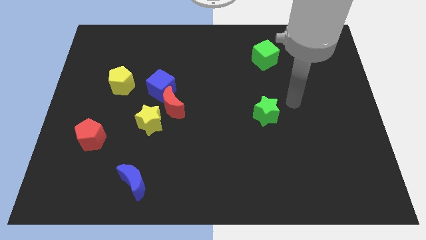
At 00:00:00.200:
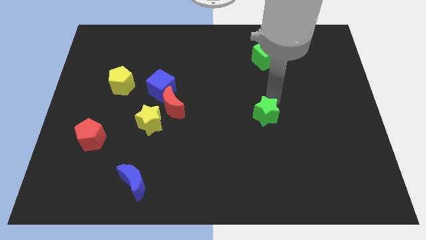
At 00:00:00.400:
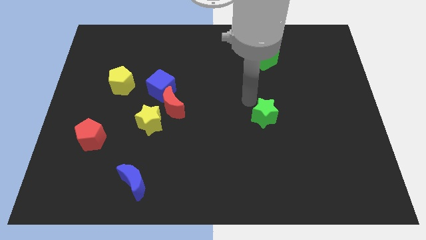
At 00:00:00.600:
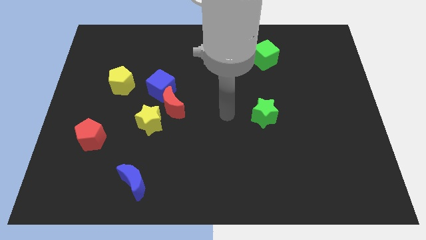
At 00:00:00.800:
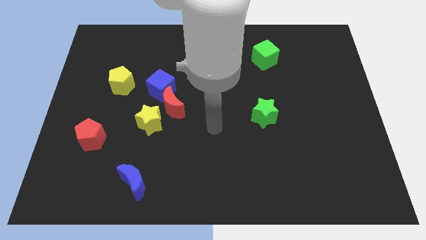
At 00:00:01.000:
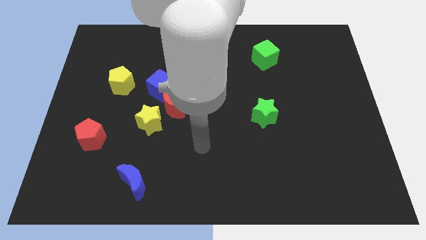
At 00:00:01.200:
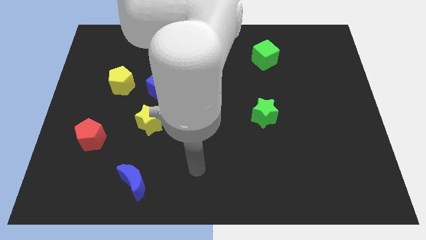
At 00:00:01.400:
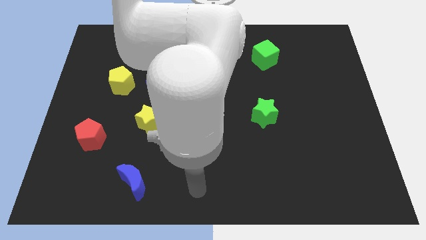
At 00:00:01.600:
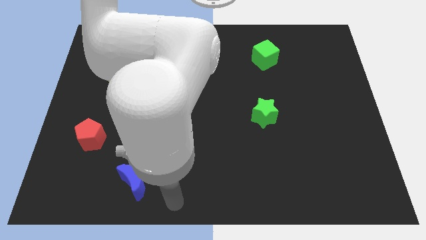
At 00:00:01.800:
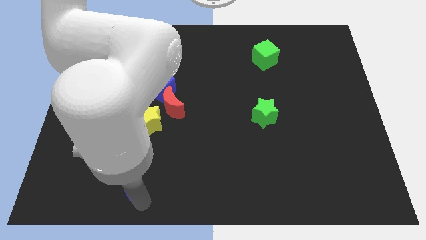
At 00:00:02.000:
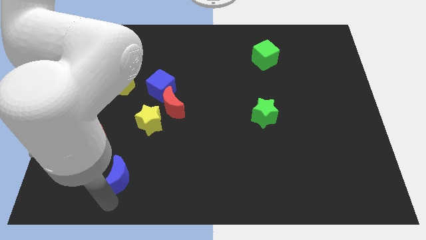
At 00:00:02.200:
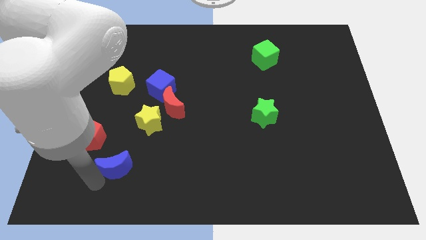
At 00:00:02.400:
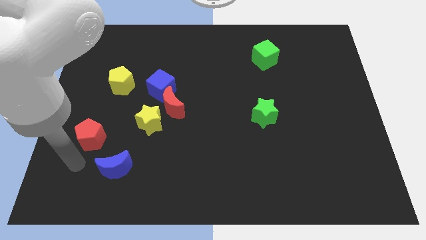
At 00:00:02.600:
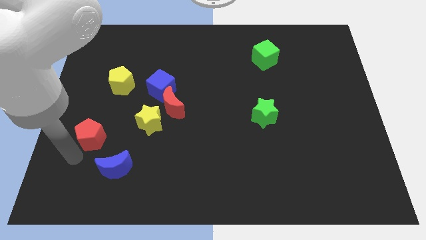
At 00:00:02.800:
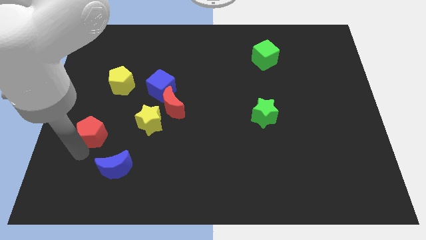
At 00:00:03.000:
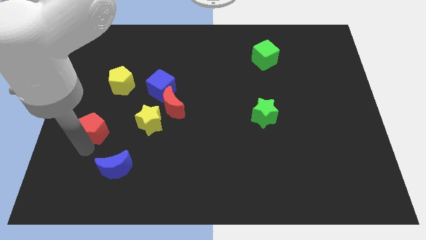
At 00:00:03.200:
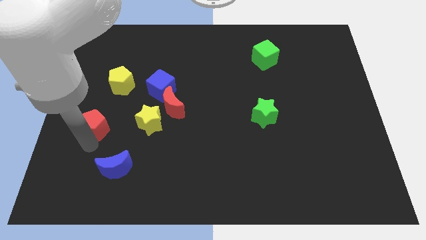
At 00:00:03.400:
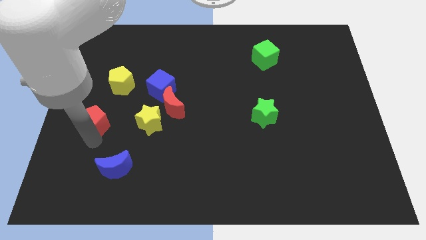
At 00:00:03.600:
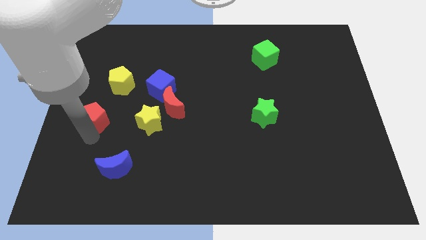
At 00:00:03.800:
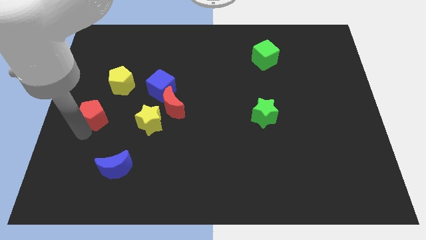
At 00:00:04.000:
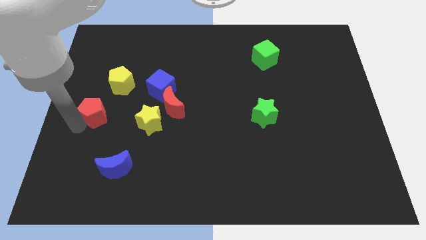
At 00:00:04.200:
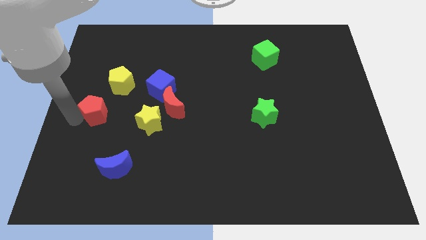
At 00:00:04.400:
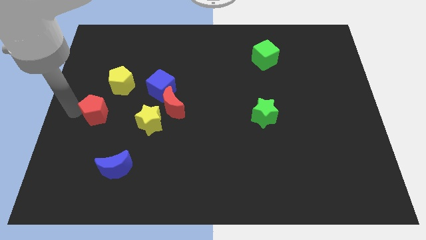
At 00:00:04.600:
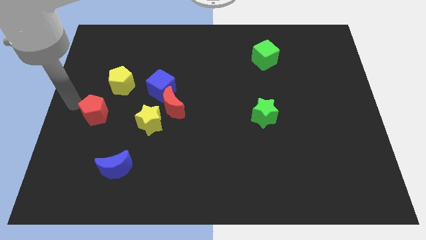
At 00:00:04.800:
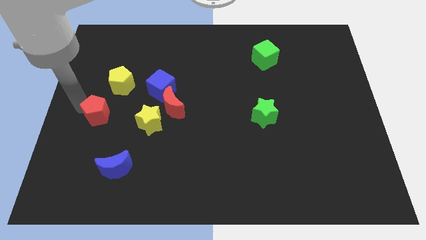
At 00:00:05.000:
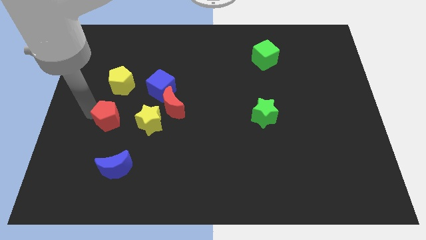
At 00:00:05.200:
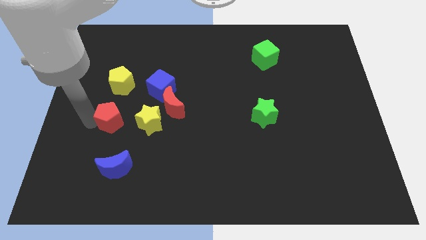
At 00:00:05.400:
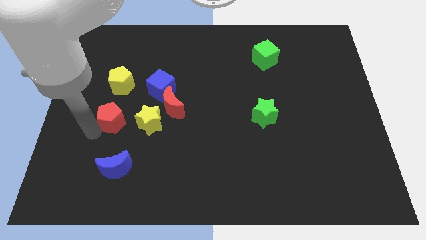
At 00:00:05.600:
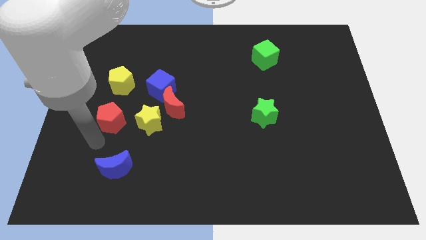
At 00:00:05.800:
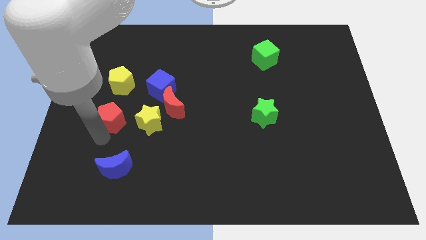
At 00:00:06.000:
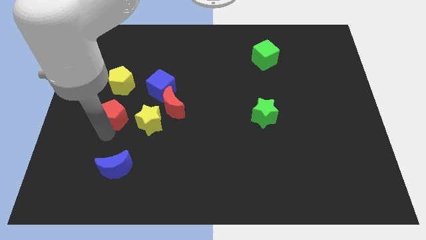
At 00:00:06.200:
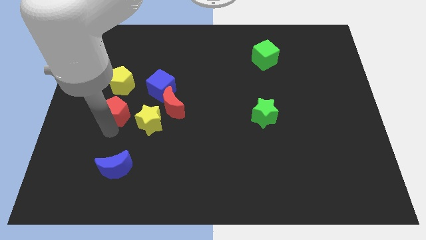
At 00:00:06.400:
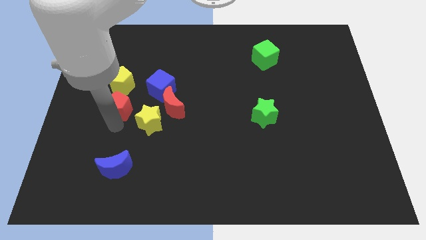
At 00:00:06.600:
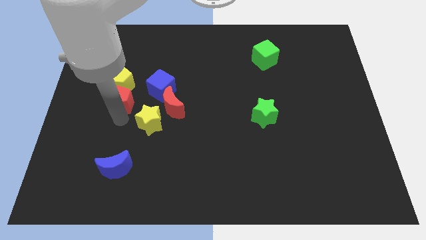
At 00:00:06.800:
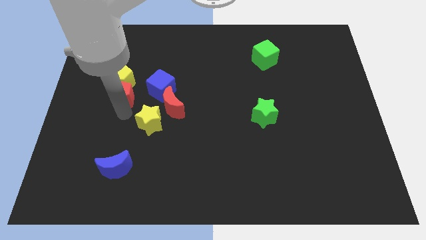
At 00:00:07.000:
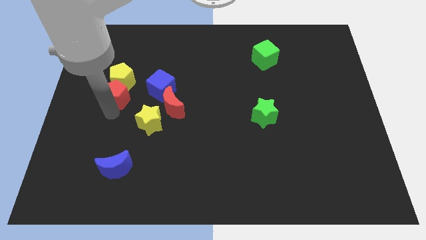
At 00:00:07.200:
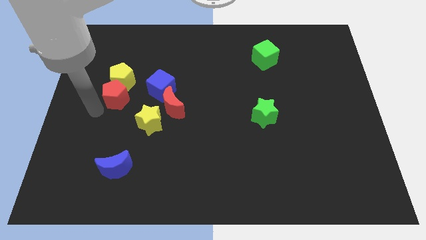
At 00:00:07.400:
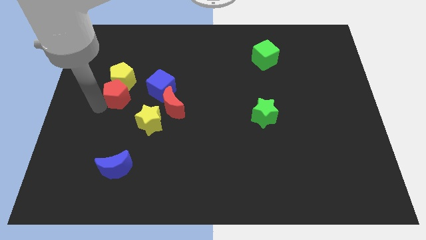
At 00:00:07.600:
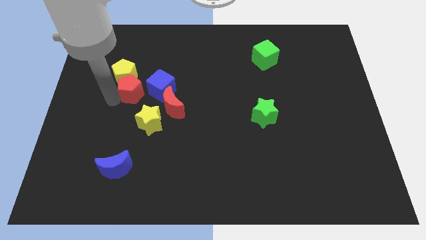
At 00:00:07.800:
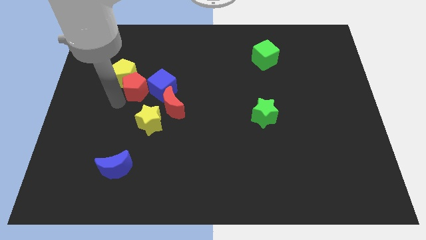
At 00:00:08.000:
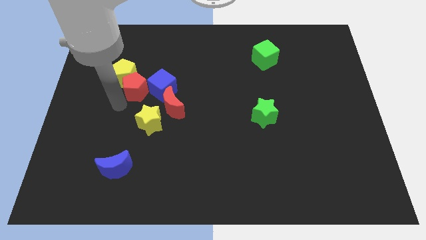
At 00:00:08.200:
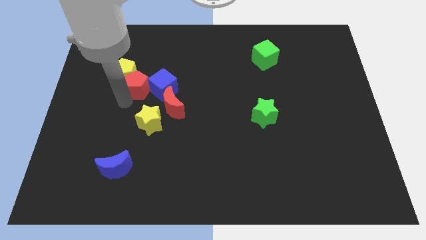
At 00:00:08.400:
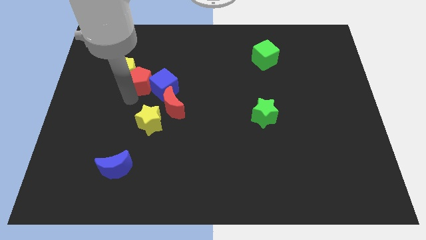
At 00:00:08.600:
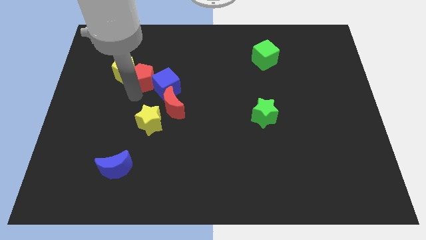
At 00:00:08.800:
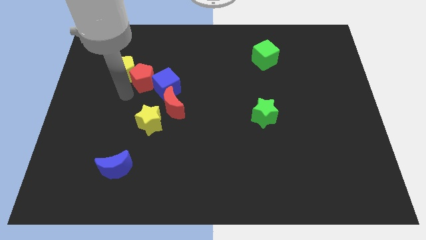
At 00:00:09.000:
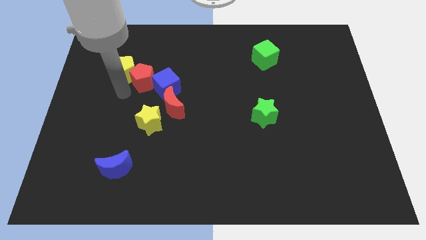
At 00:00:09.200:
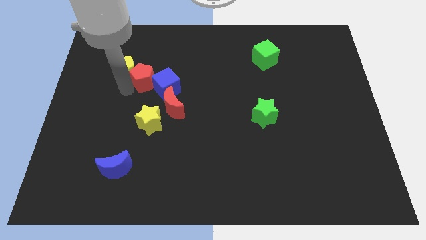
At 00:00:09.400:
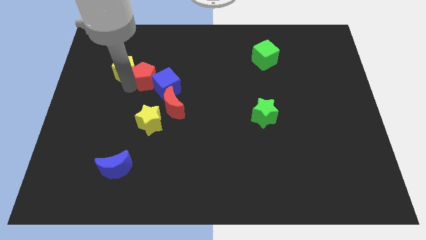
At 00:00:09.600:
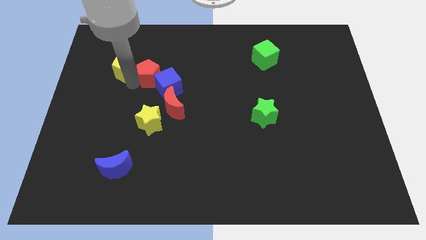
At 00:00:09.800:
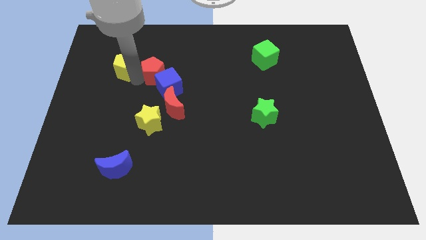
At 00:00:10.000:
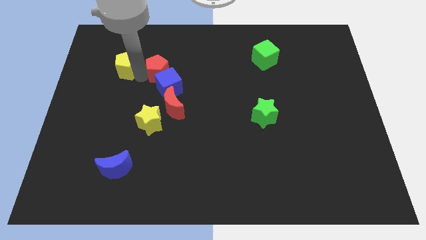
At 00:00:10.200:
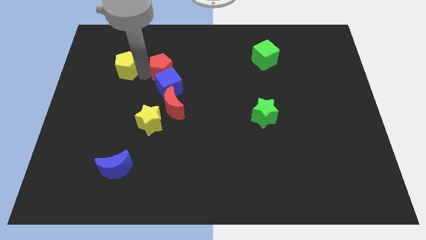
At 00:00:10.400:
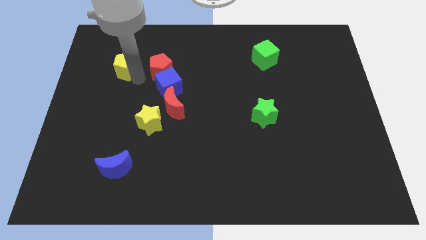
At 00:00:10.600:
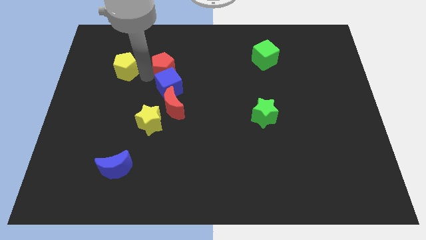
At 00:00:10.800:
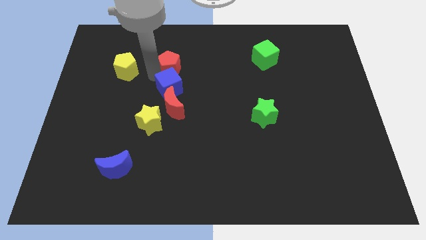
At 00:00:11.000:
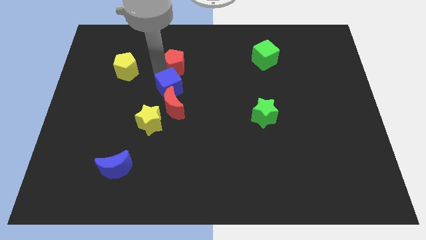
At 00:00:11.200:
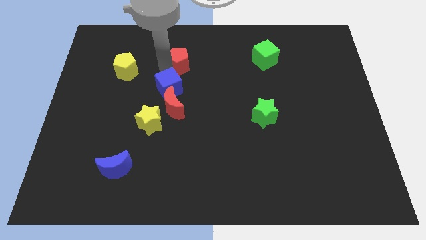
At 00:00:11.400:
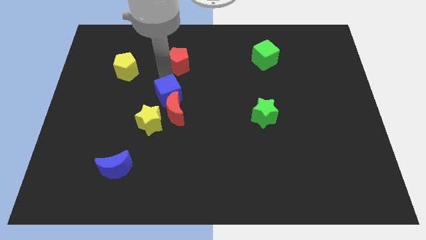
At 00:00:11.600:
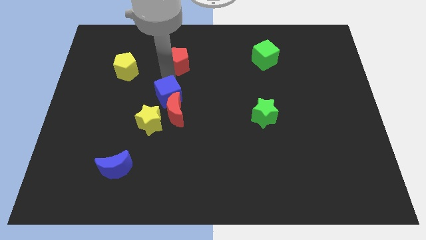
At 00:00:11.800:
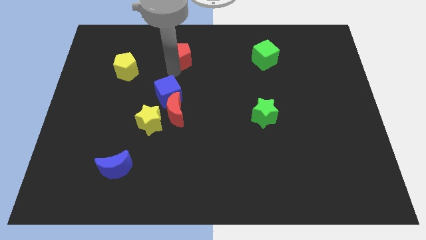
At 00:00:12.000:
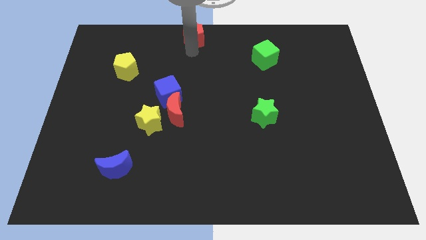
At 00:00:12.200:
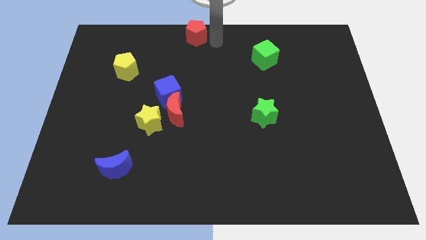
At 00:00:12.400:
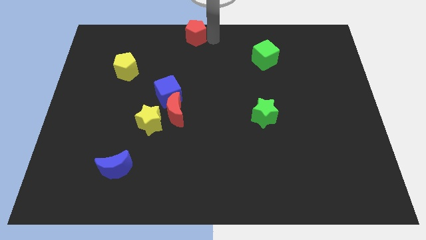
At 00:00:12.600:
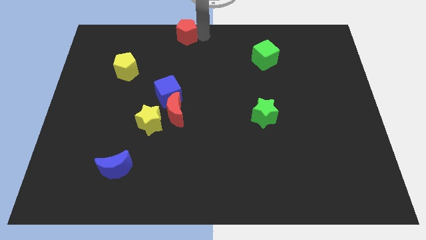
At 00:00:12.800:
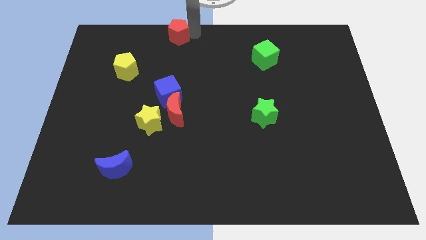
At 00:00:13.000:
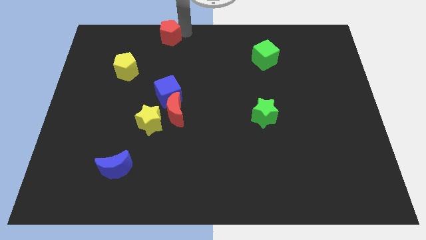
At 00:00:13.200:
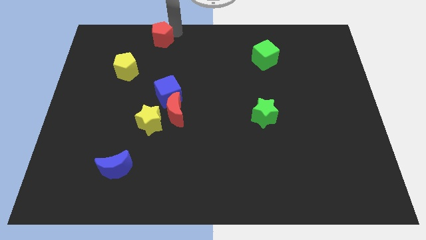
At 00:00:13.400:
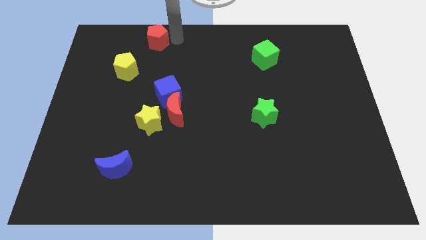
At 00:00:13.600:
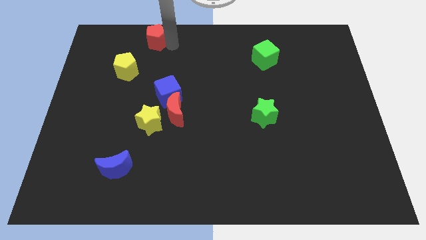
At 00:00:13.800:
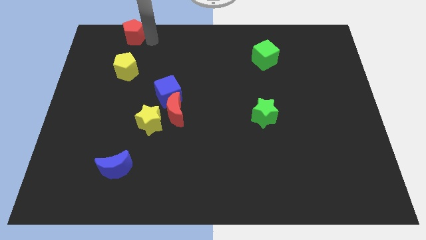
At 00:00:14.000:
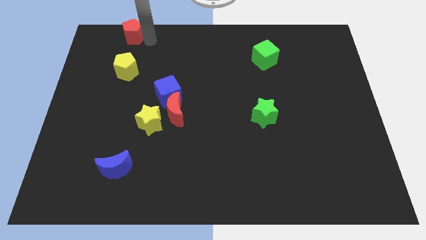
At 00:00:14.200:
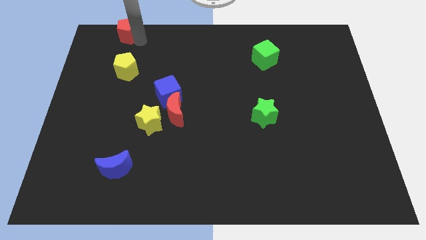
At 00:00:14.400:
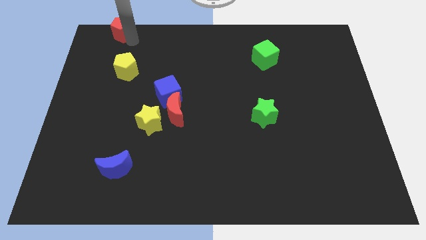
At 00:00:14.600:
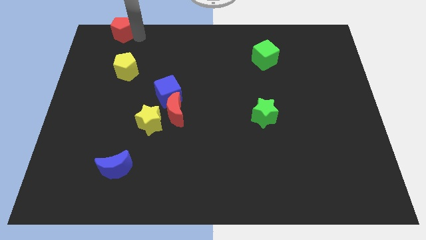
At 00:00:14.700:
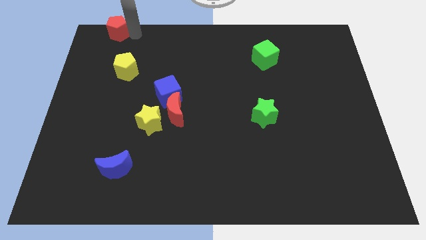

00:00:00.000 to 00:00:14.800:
slide the red pentagon to the upper left corner
